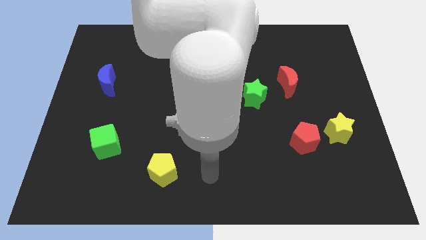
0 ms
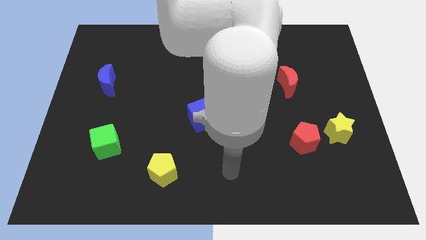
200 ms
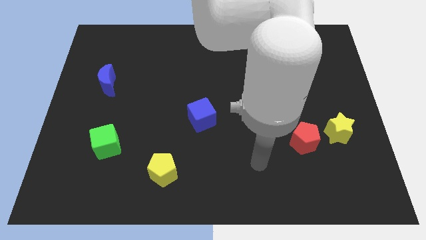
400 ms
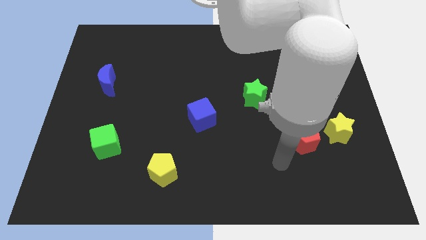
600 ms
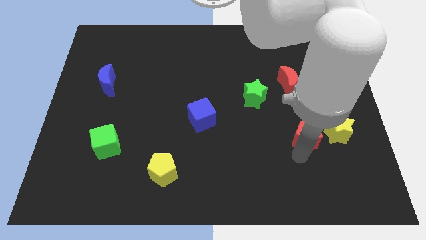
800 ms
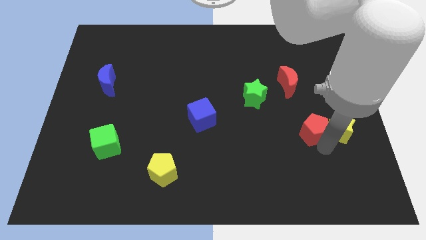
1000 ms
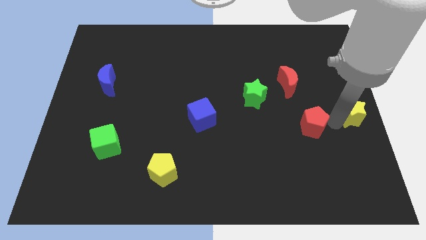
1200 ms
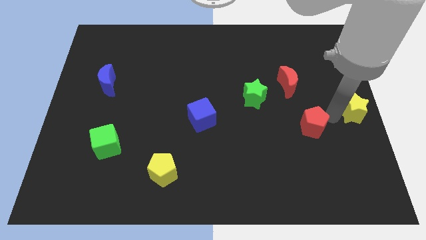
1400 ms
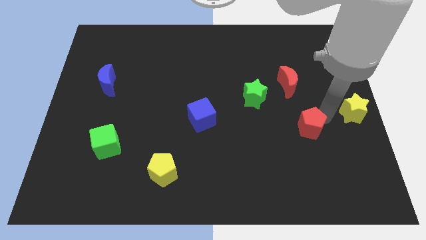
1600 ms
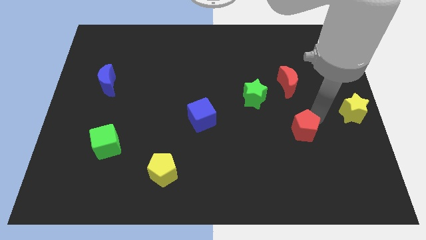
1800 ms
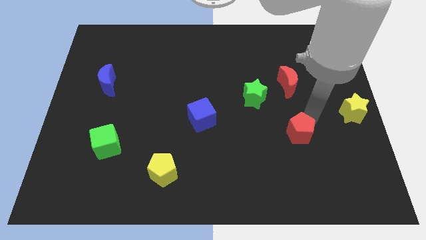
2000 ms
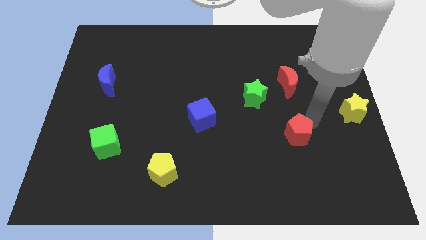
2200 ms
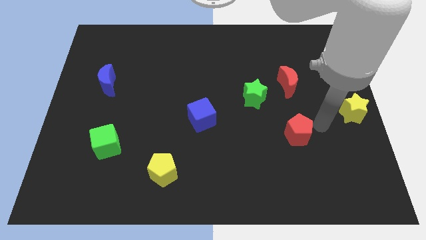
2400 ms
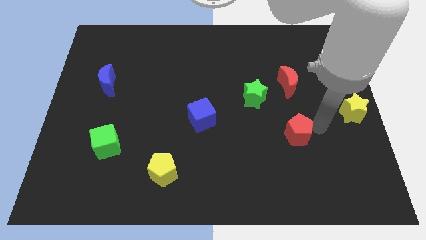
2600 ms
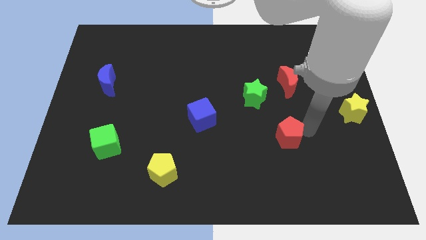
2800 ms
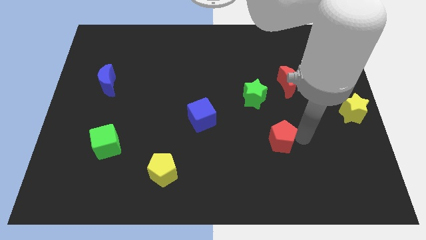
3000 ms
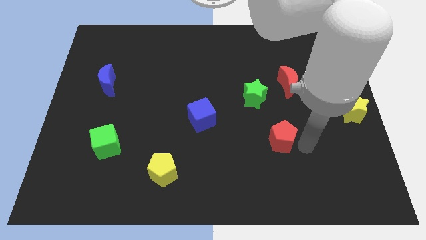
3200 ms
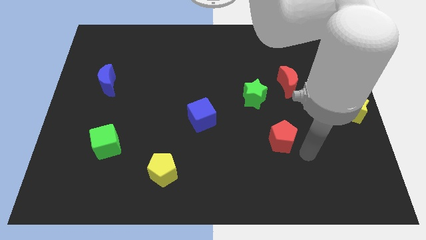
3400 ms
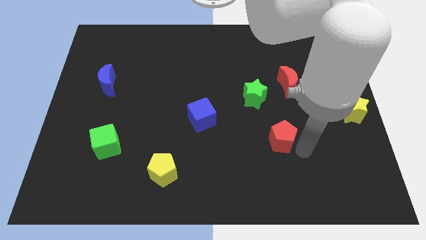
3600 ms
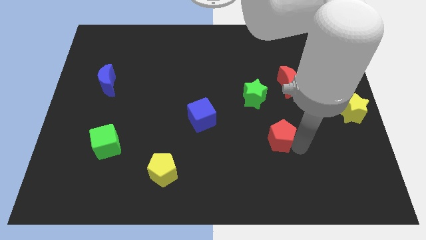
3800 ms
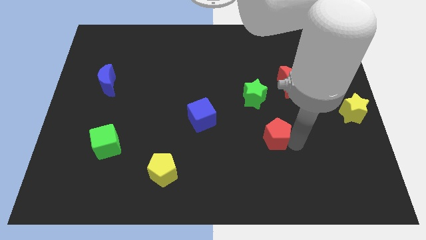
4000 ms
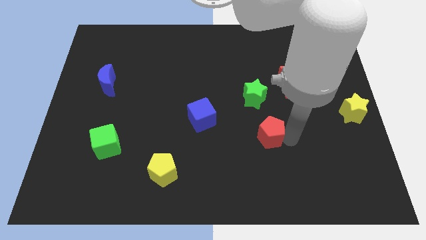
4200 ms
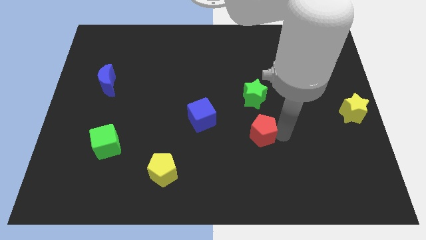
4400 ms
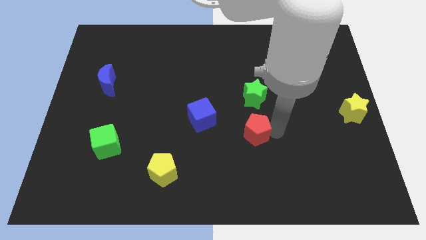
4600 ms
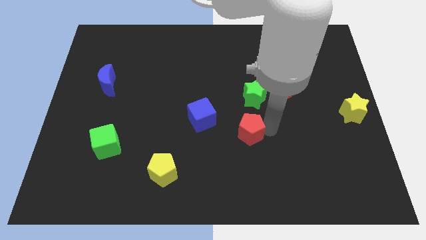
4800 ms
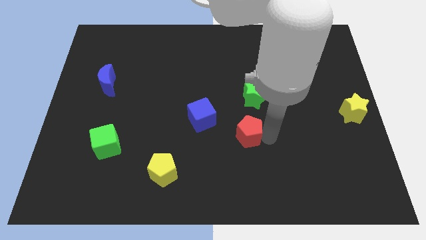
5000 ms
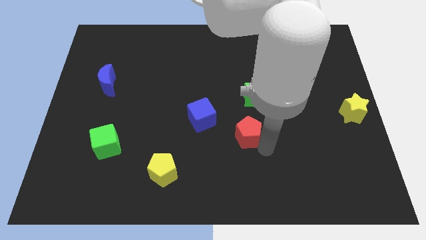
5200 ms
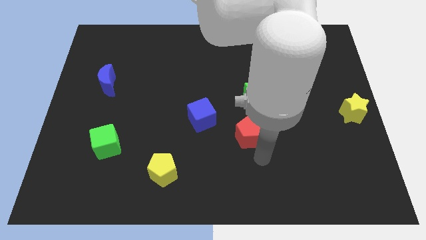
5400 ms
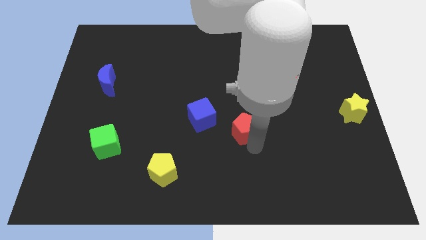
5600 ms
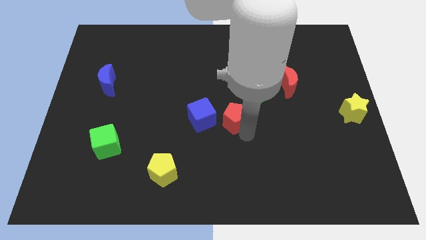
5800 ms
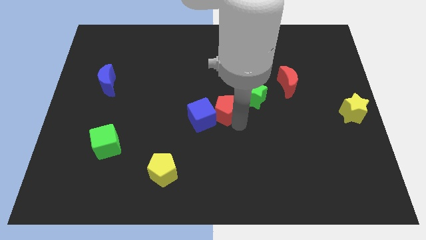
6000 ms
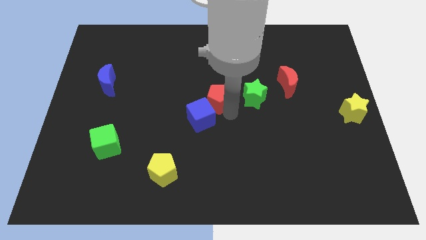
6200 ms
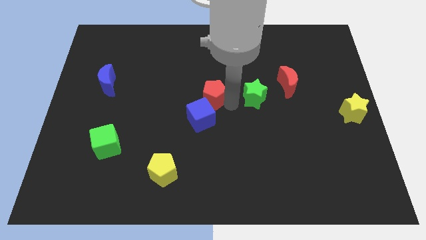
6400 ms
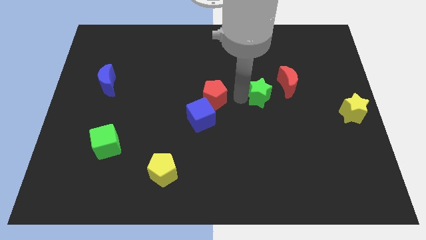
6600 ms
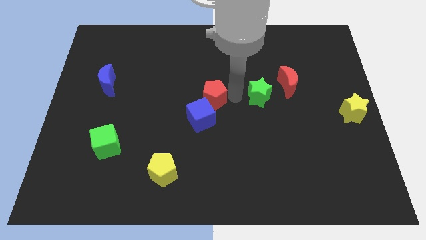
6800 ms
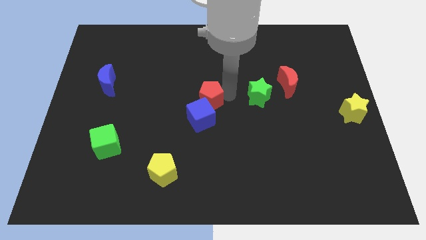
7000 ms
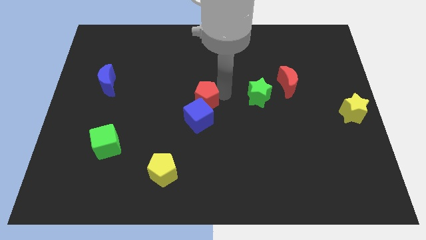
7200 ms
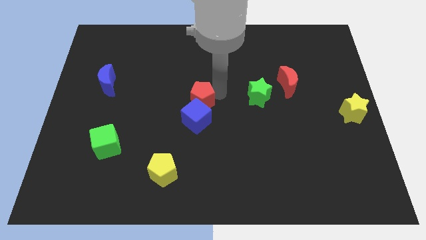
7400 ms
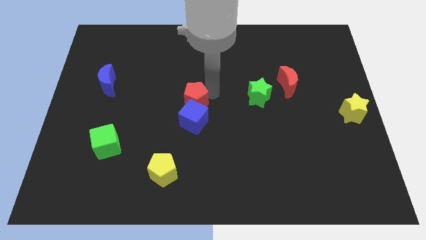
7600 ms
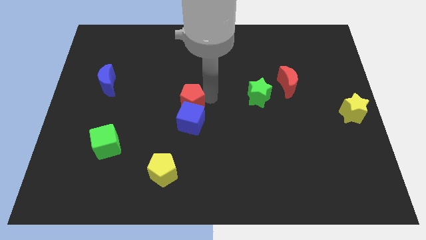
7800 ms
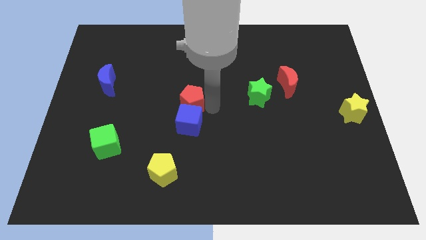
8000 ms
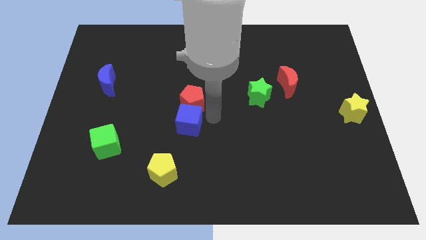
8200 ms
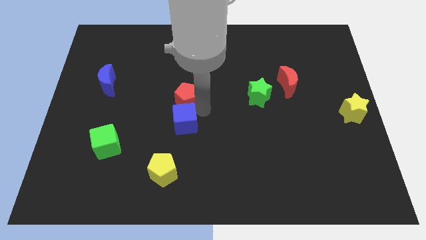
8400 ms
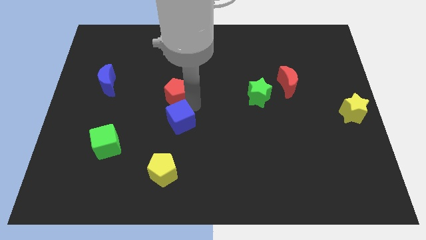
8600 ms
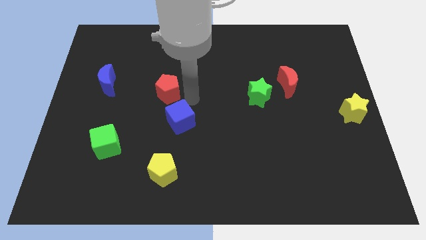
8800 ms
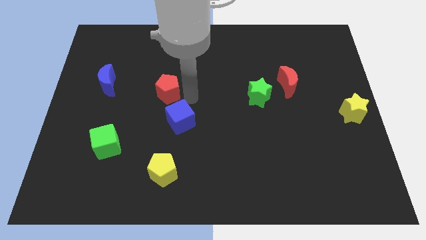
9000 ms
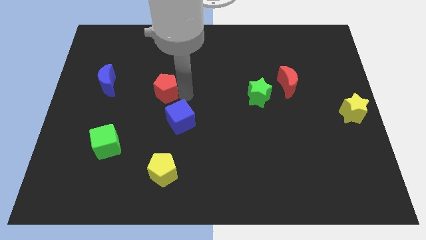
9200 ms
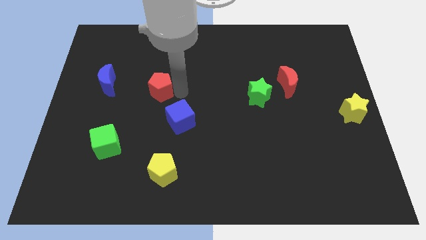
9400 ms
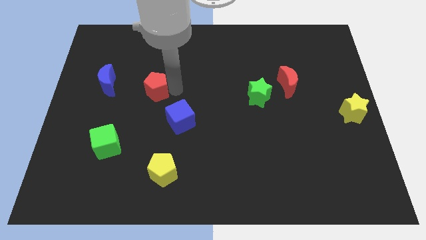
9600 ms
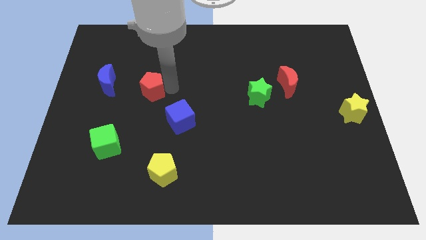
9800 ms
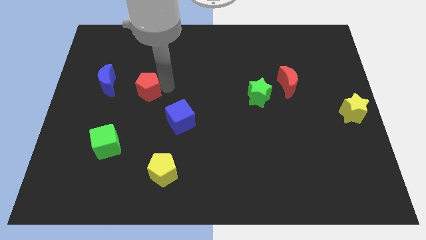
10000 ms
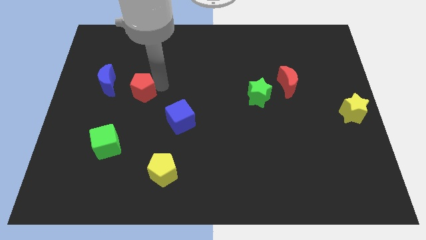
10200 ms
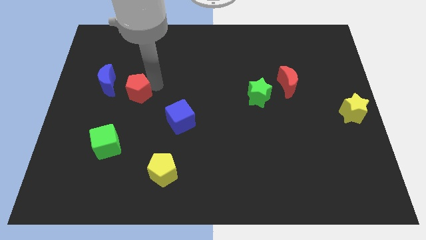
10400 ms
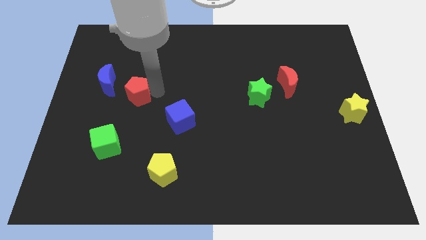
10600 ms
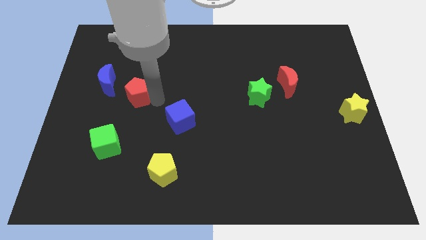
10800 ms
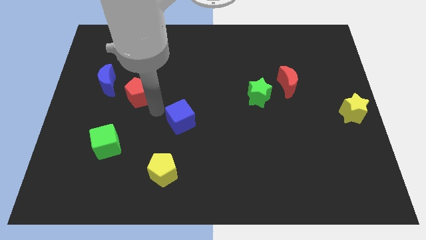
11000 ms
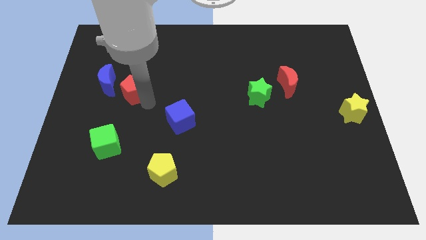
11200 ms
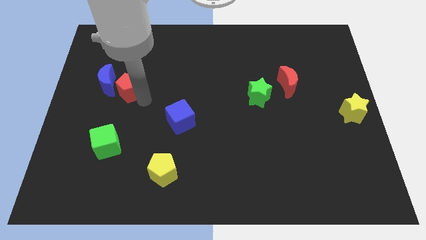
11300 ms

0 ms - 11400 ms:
move the red pentagon next to the blue moon

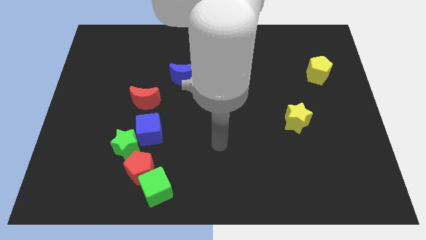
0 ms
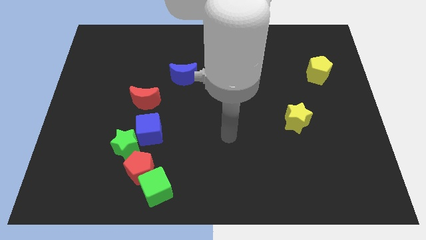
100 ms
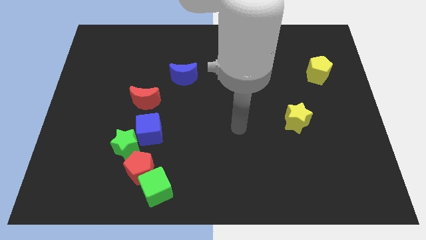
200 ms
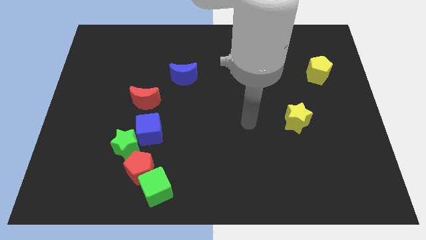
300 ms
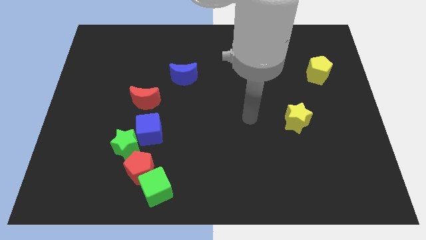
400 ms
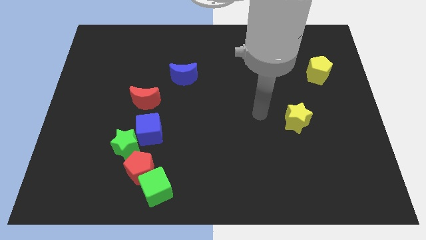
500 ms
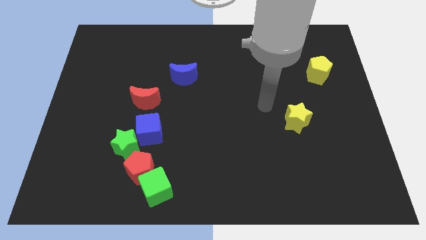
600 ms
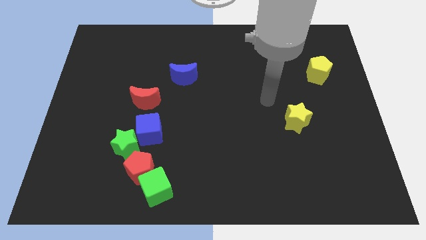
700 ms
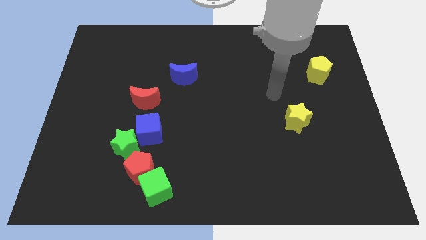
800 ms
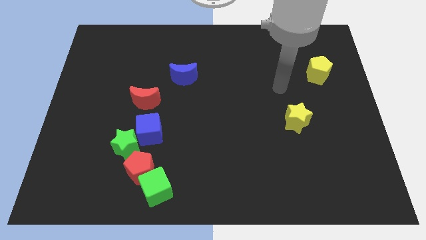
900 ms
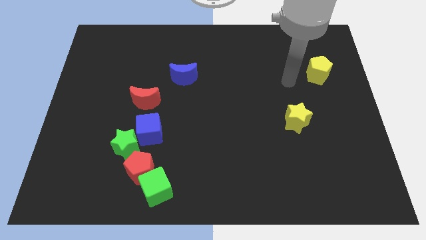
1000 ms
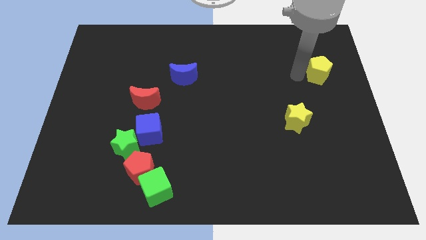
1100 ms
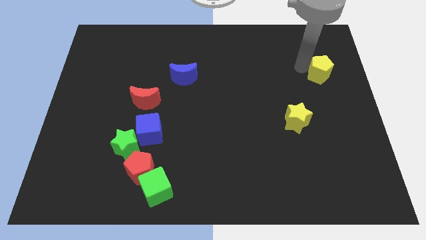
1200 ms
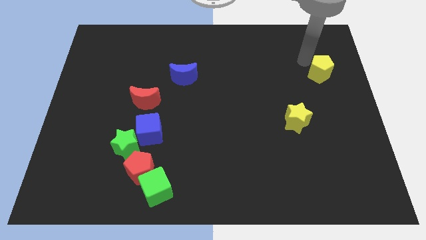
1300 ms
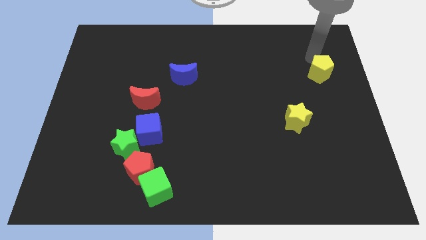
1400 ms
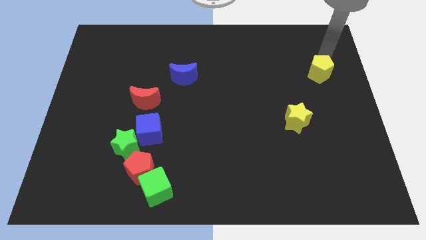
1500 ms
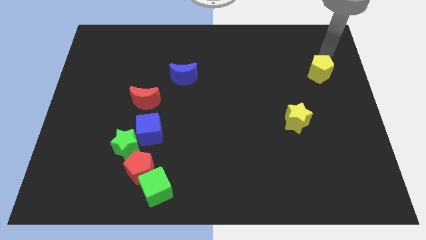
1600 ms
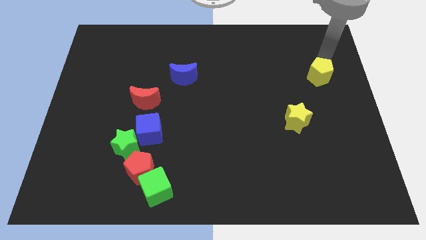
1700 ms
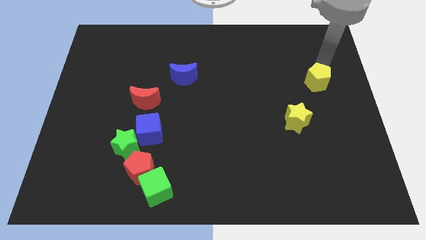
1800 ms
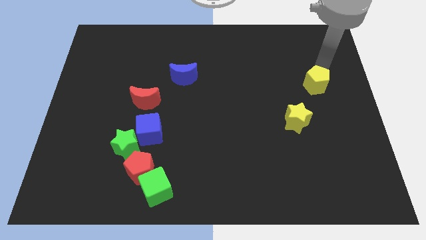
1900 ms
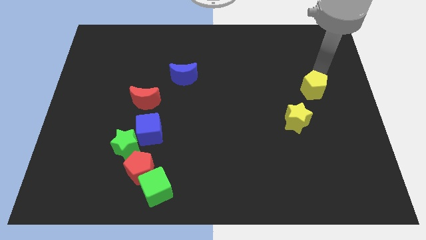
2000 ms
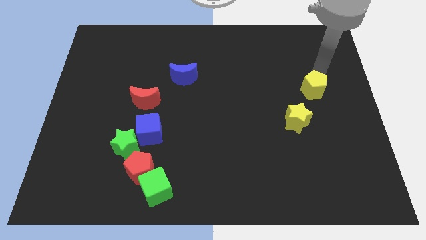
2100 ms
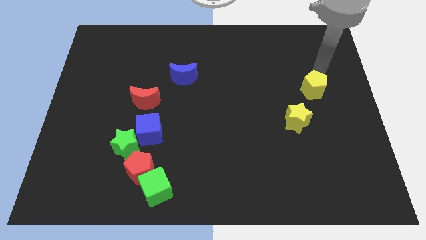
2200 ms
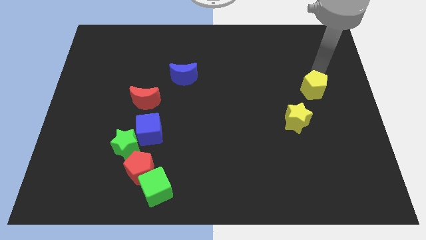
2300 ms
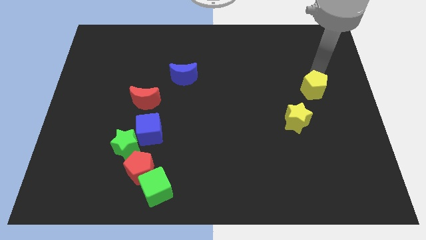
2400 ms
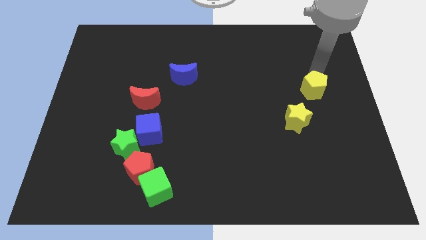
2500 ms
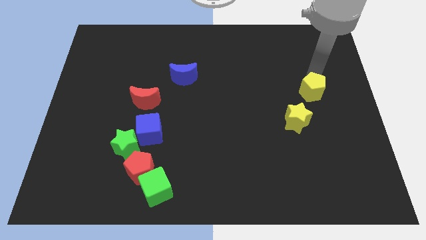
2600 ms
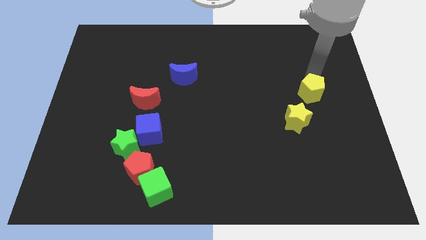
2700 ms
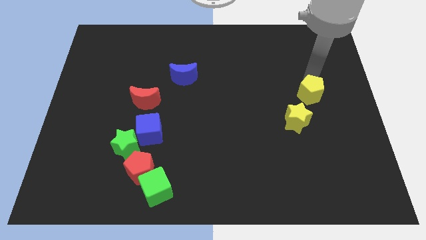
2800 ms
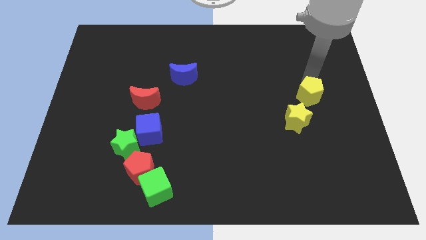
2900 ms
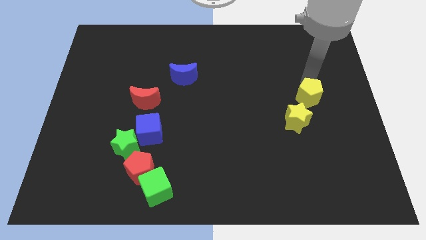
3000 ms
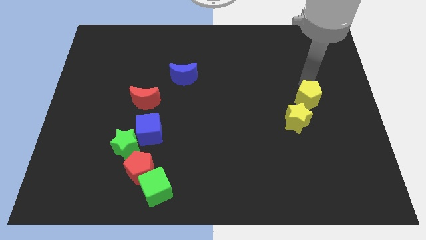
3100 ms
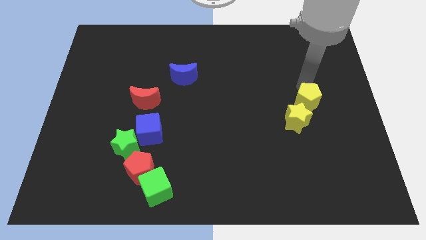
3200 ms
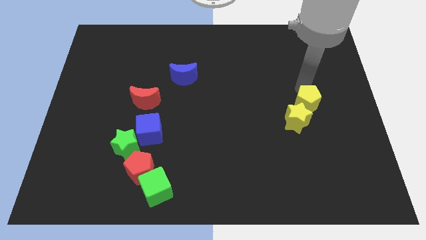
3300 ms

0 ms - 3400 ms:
slide the yellow pentagon towards the yellow star
